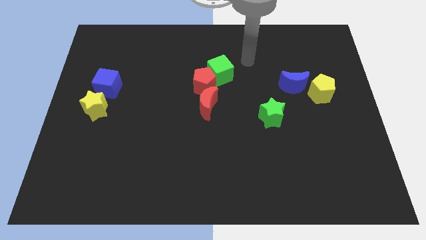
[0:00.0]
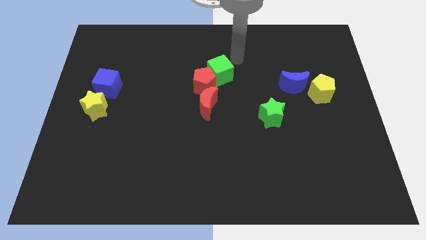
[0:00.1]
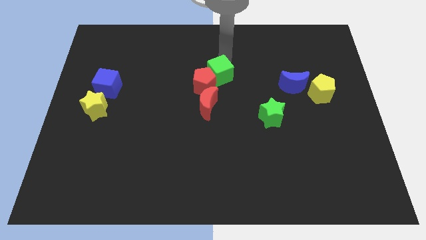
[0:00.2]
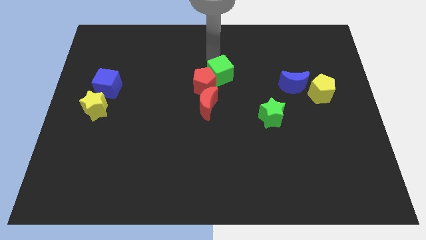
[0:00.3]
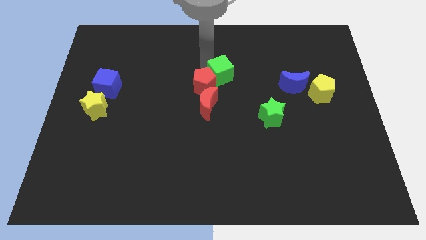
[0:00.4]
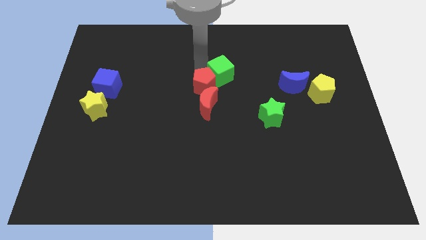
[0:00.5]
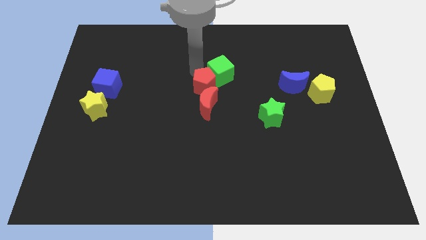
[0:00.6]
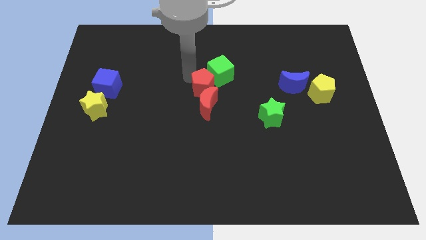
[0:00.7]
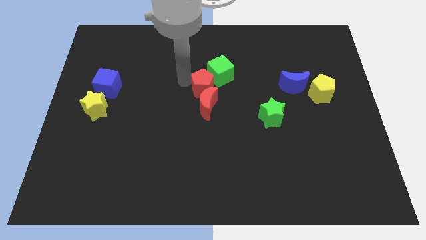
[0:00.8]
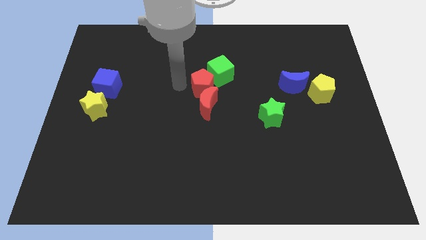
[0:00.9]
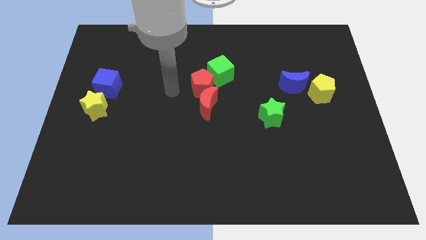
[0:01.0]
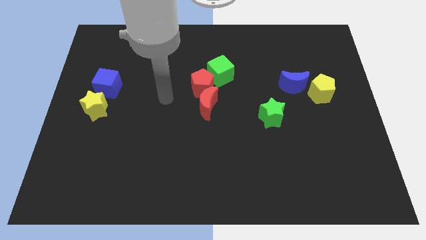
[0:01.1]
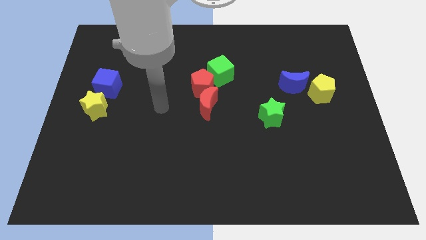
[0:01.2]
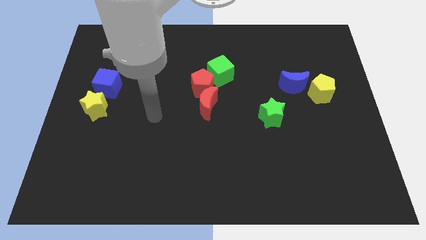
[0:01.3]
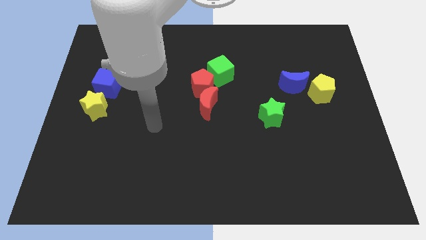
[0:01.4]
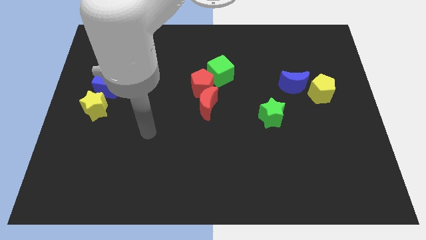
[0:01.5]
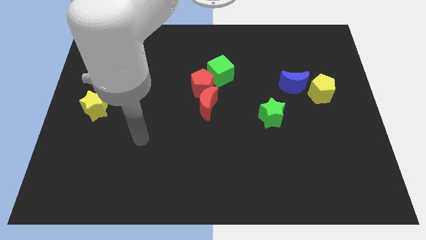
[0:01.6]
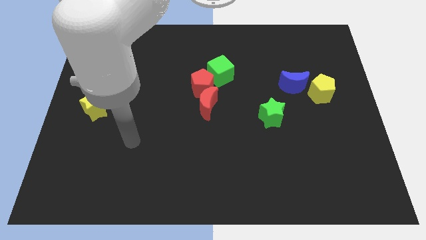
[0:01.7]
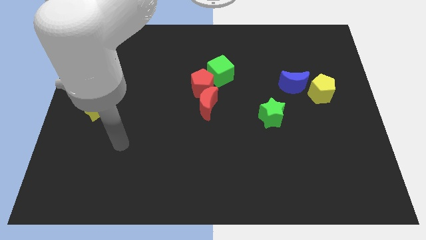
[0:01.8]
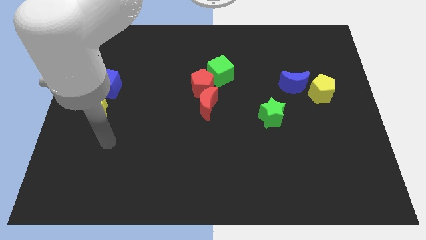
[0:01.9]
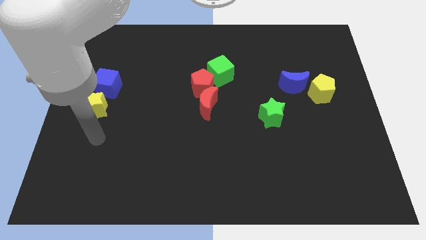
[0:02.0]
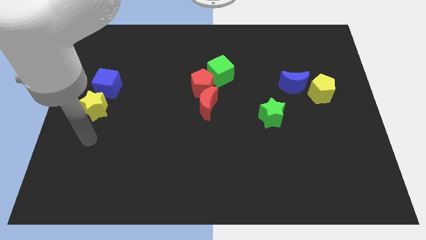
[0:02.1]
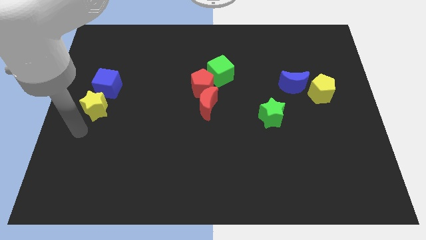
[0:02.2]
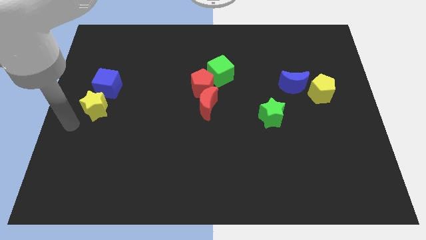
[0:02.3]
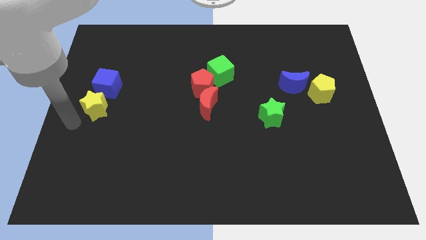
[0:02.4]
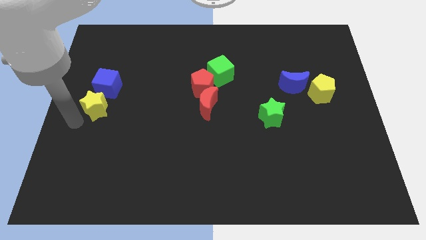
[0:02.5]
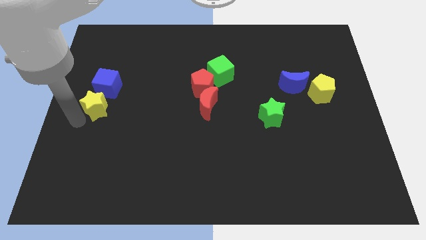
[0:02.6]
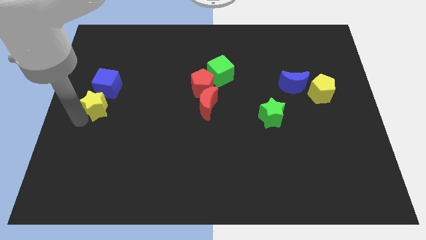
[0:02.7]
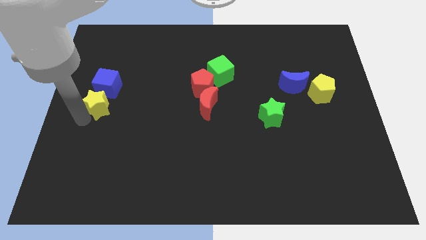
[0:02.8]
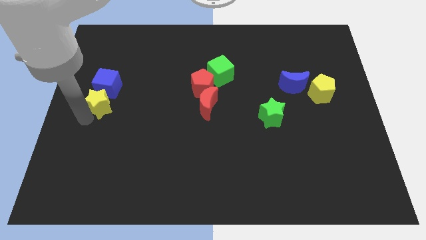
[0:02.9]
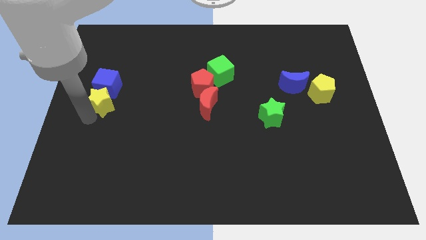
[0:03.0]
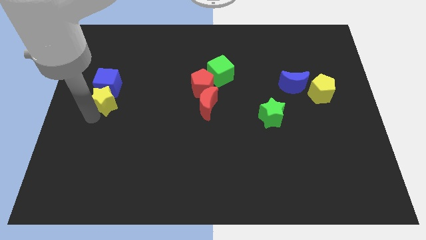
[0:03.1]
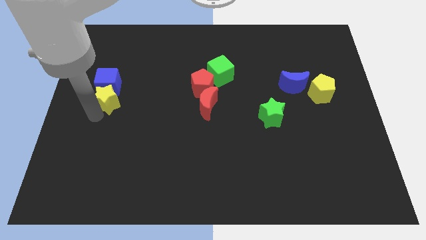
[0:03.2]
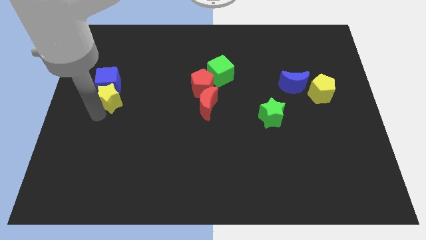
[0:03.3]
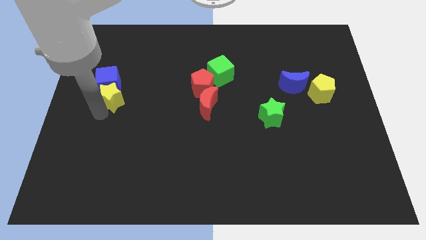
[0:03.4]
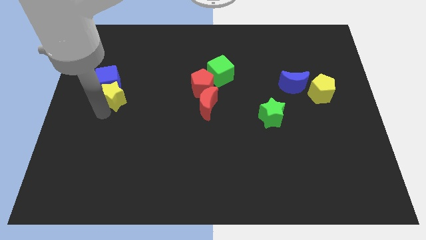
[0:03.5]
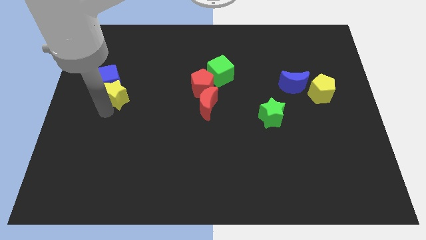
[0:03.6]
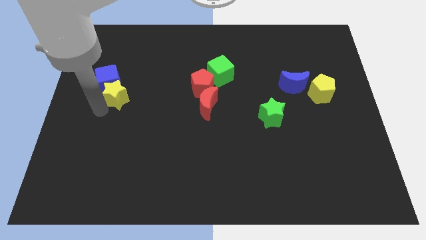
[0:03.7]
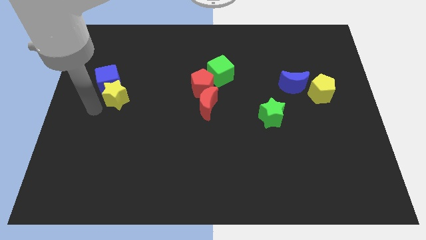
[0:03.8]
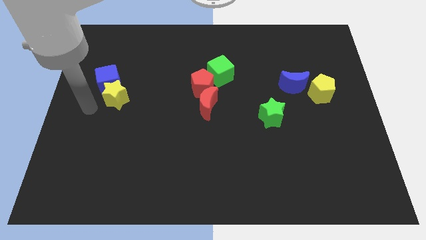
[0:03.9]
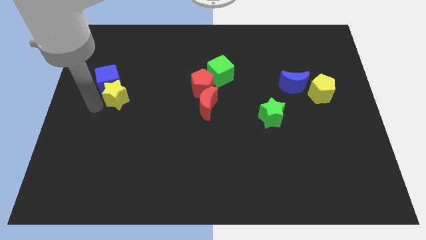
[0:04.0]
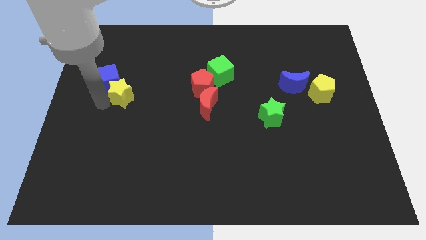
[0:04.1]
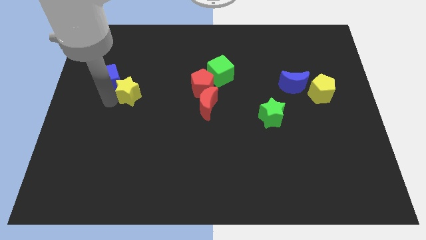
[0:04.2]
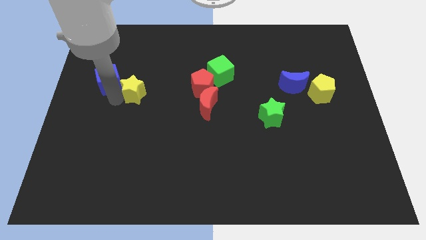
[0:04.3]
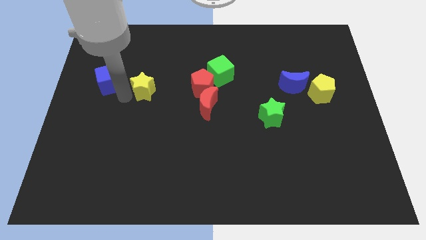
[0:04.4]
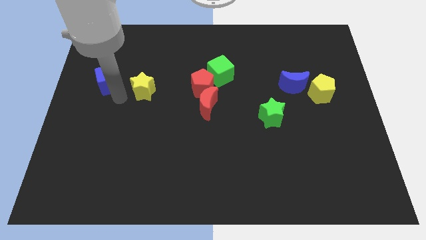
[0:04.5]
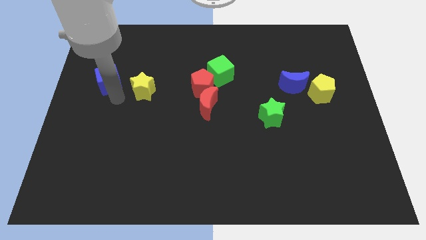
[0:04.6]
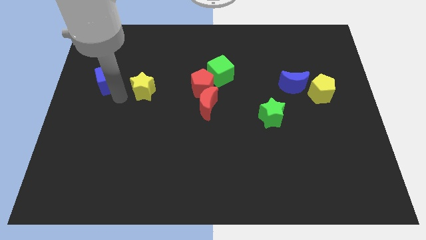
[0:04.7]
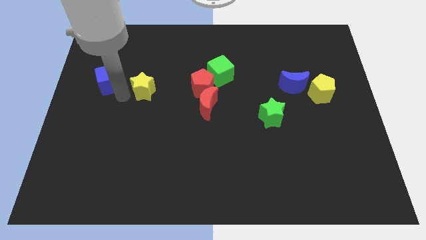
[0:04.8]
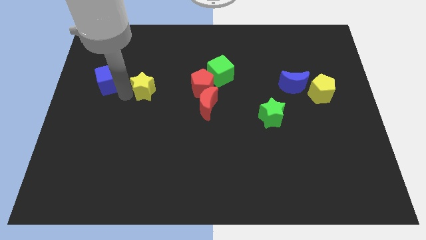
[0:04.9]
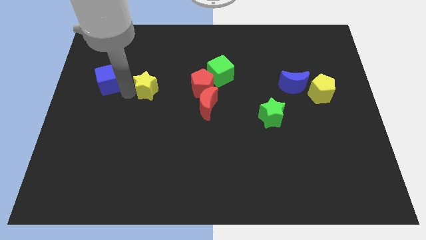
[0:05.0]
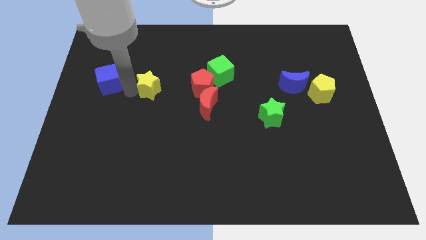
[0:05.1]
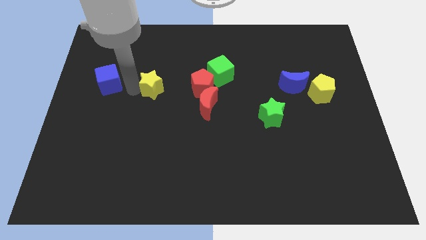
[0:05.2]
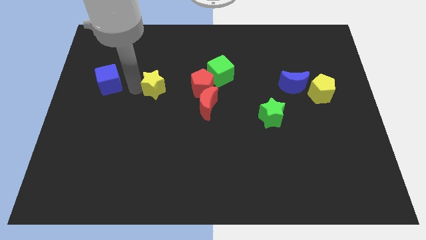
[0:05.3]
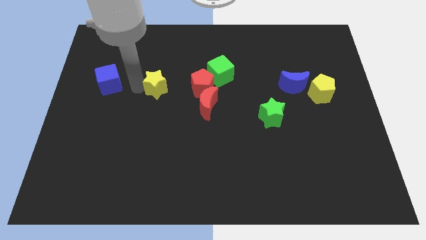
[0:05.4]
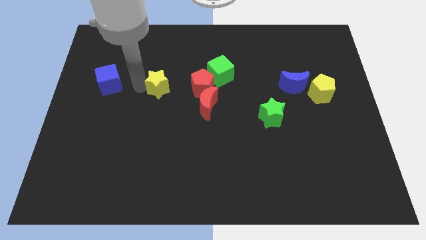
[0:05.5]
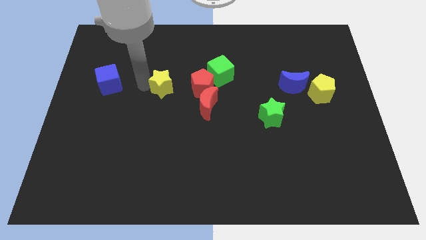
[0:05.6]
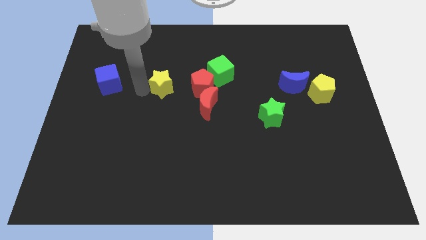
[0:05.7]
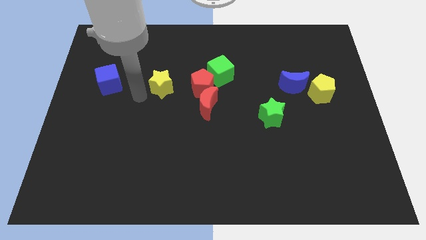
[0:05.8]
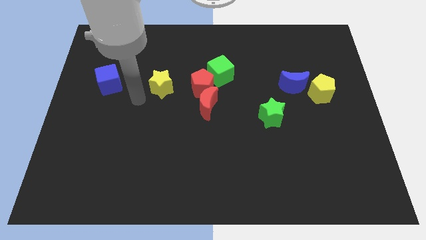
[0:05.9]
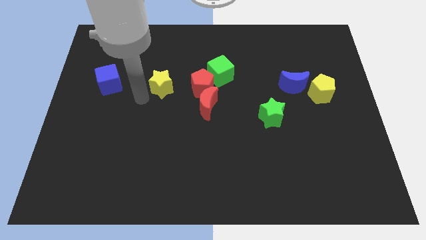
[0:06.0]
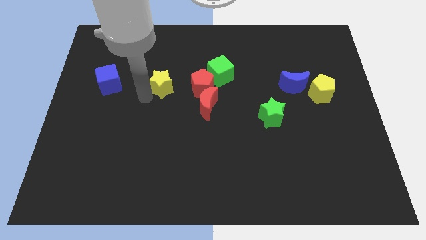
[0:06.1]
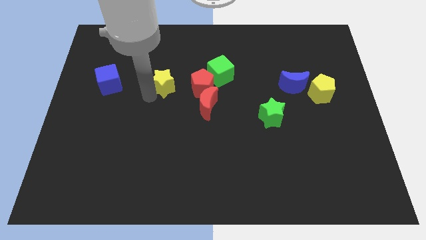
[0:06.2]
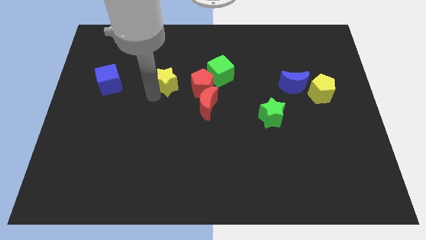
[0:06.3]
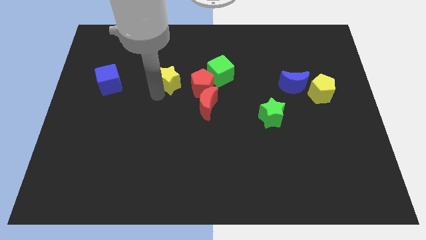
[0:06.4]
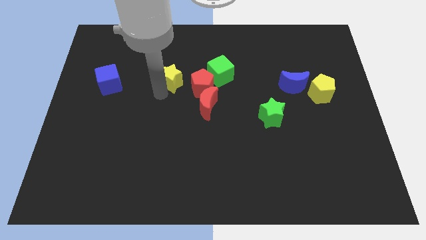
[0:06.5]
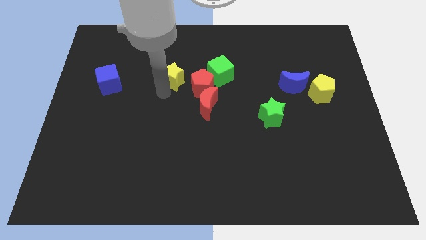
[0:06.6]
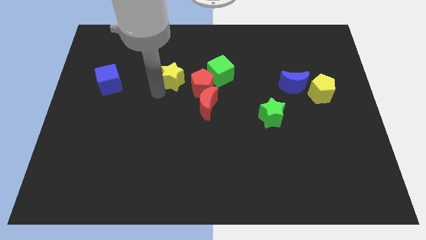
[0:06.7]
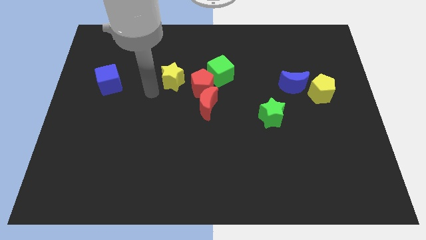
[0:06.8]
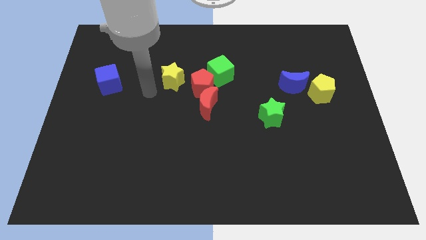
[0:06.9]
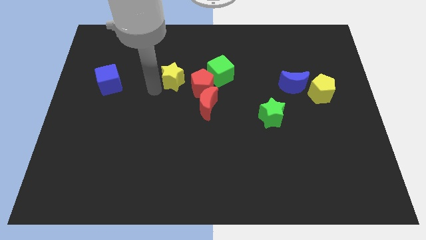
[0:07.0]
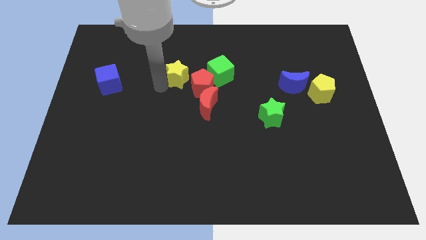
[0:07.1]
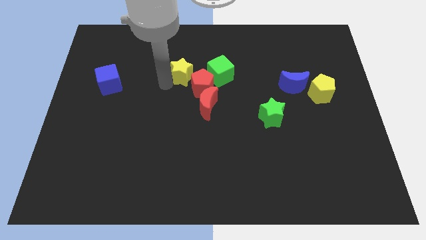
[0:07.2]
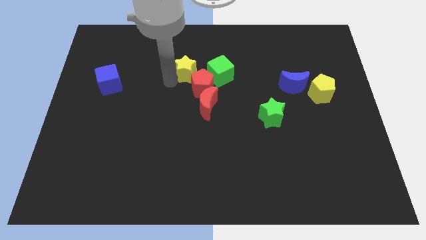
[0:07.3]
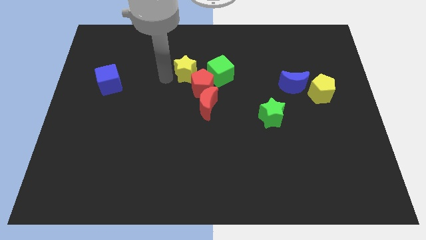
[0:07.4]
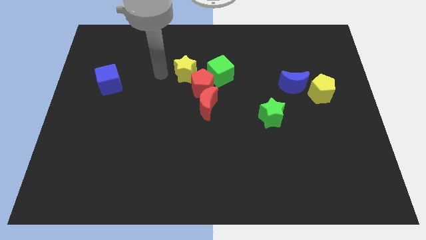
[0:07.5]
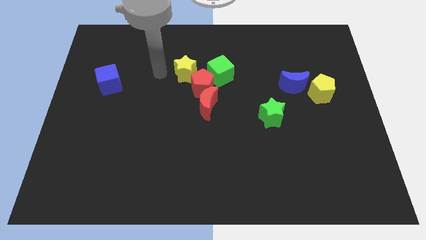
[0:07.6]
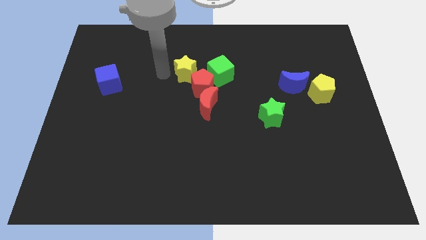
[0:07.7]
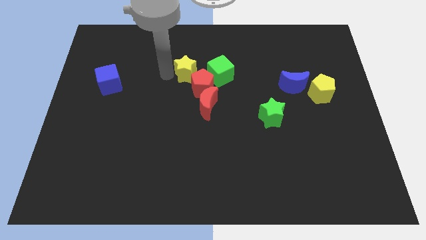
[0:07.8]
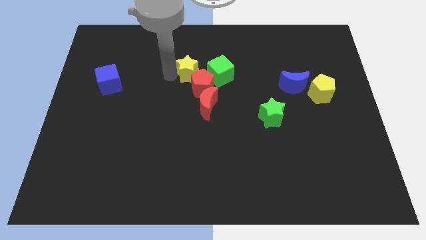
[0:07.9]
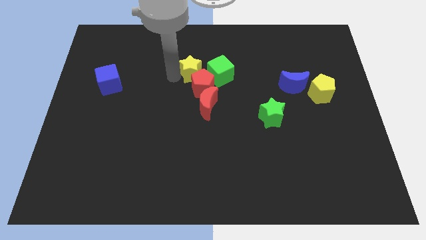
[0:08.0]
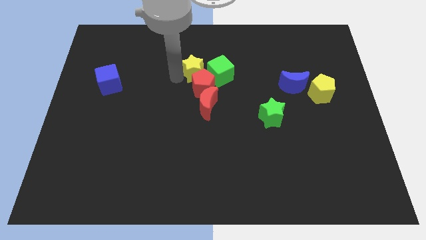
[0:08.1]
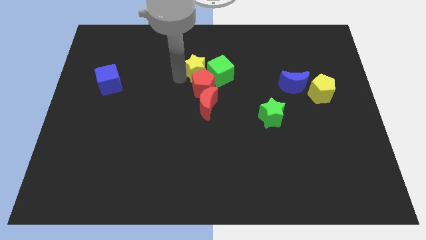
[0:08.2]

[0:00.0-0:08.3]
move the yellow star next to the green cube
